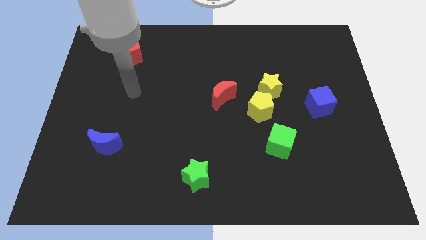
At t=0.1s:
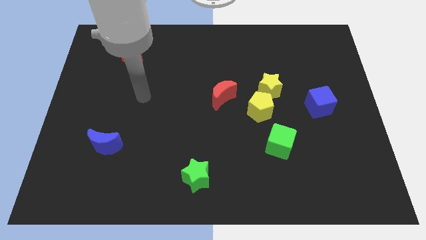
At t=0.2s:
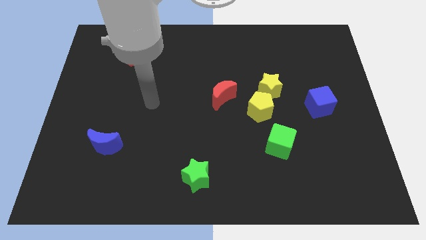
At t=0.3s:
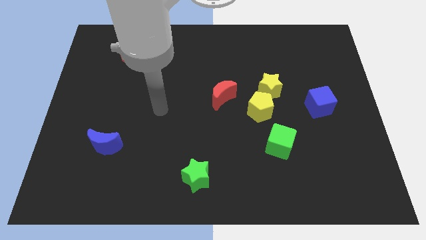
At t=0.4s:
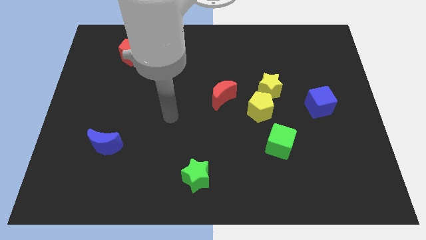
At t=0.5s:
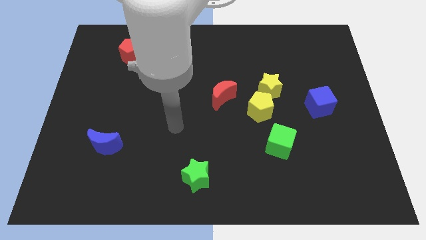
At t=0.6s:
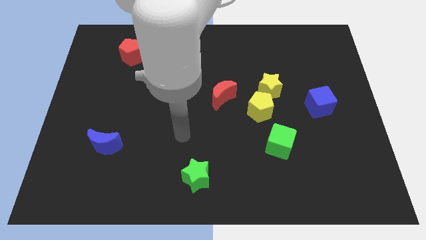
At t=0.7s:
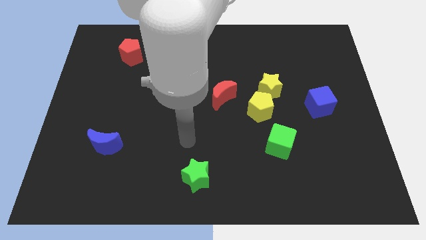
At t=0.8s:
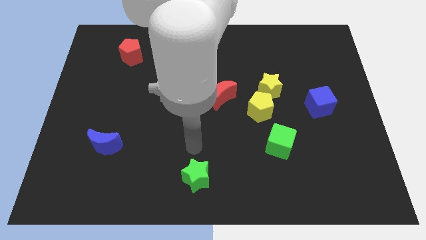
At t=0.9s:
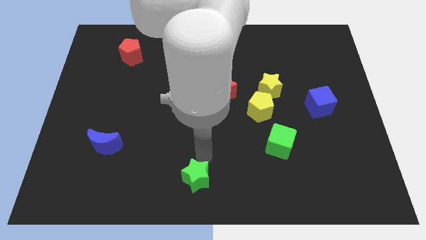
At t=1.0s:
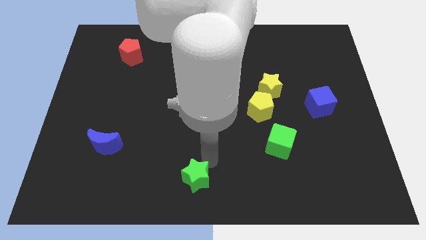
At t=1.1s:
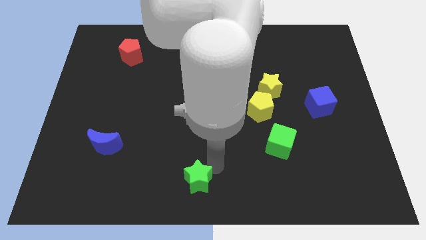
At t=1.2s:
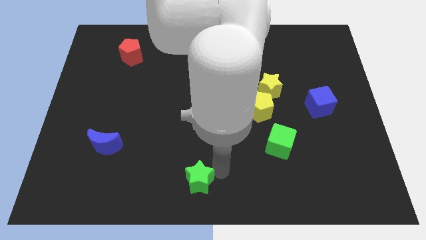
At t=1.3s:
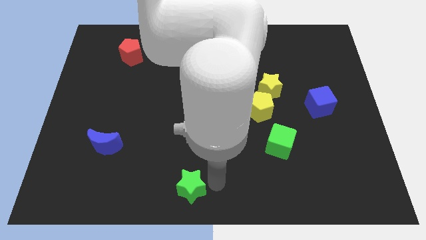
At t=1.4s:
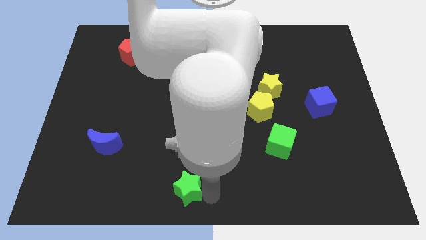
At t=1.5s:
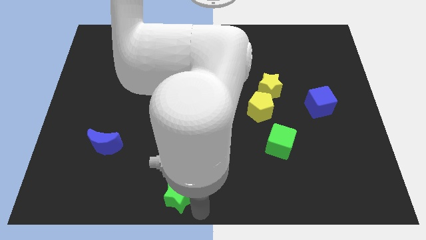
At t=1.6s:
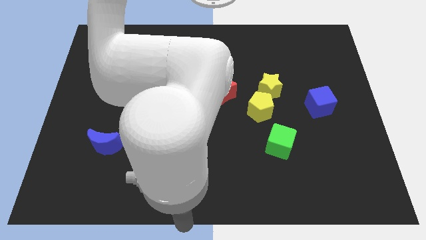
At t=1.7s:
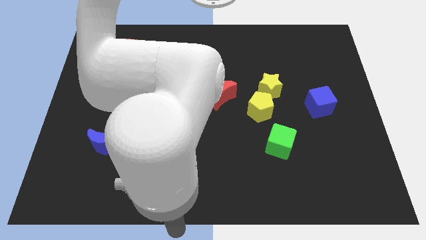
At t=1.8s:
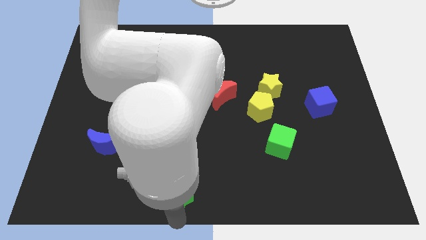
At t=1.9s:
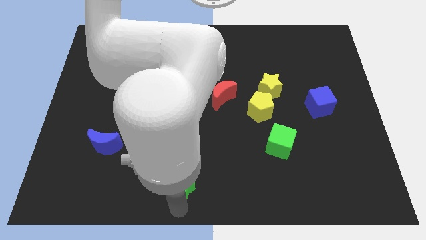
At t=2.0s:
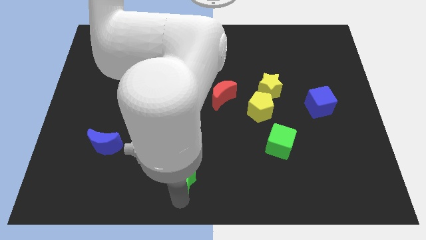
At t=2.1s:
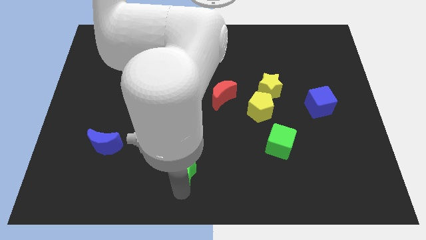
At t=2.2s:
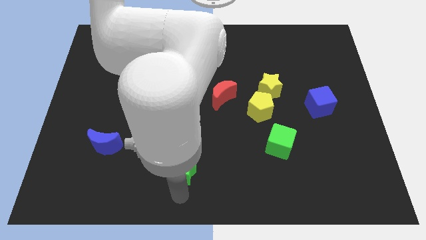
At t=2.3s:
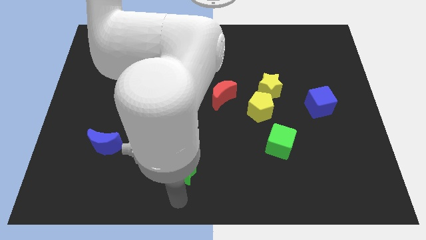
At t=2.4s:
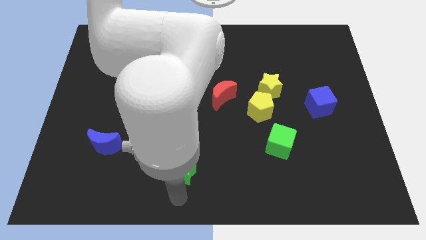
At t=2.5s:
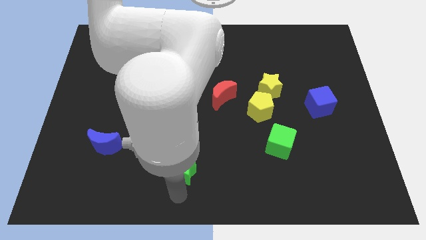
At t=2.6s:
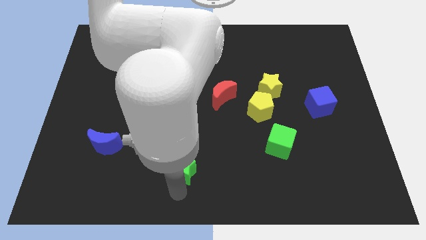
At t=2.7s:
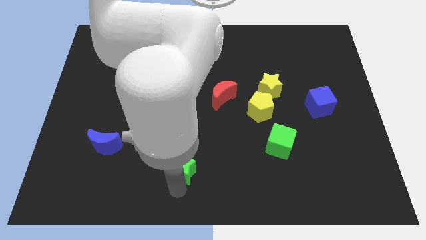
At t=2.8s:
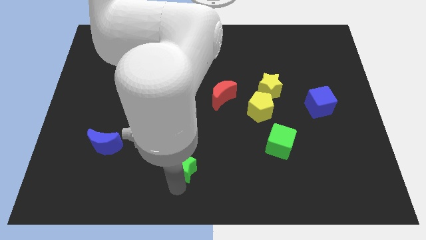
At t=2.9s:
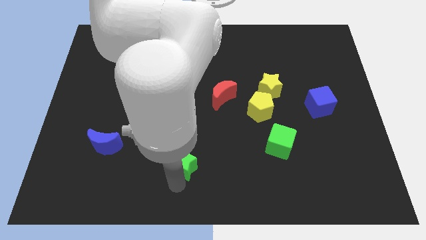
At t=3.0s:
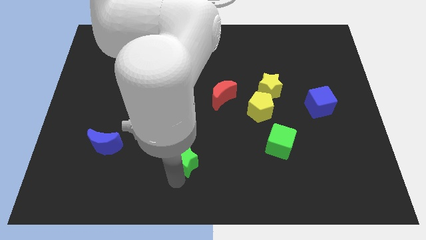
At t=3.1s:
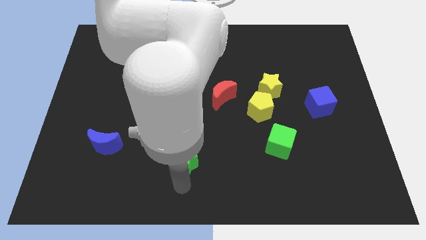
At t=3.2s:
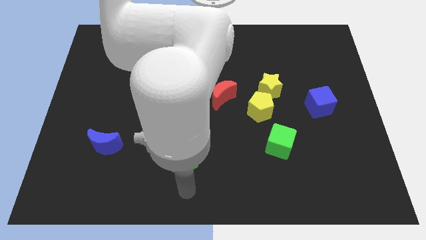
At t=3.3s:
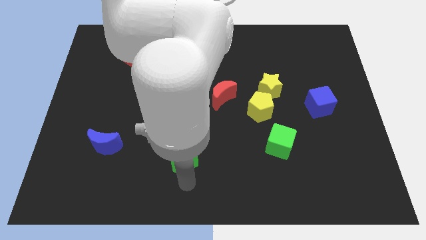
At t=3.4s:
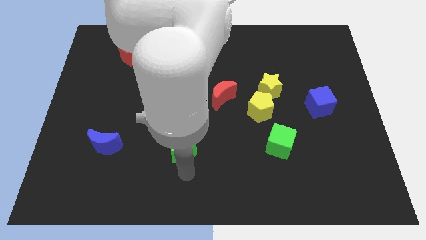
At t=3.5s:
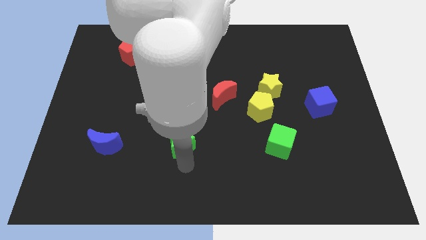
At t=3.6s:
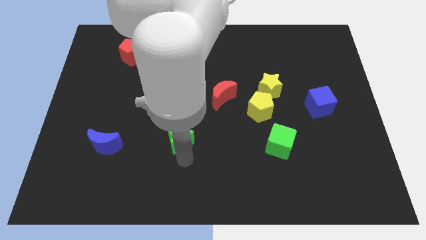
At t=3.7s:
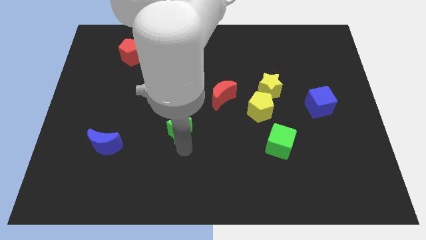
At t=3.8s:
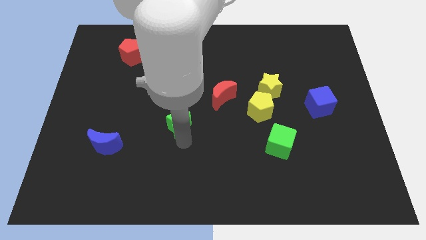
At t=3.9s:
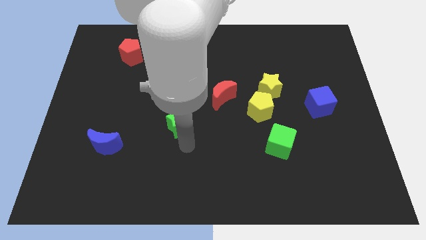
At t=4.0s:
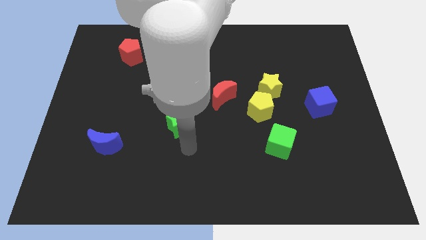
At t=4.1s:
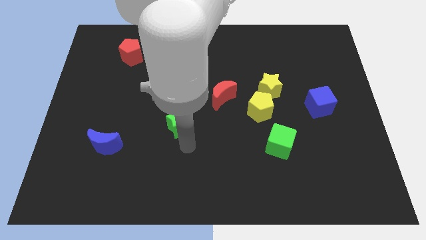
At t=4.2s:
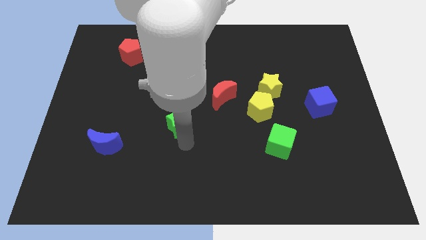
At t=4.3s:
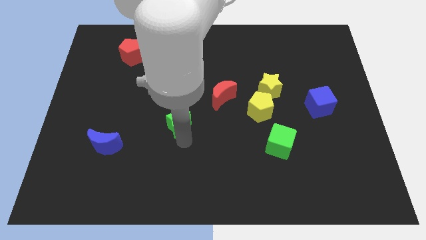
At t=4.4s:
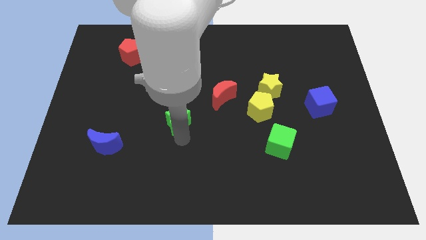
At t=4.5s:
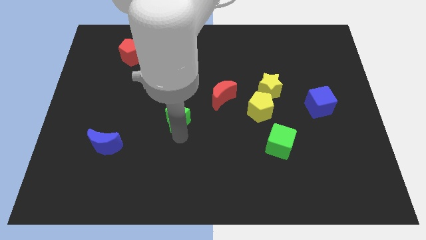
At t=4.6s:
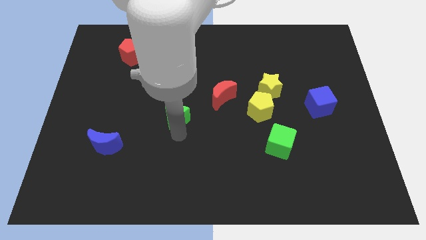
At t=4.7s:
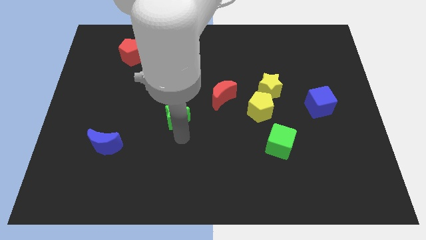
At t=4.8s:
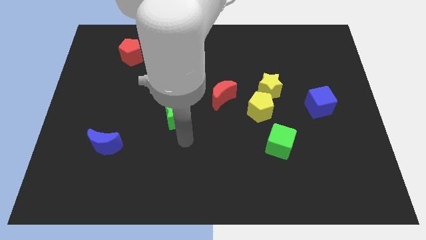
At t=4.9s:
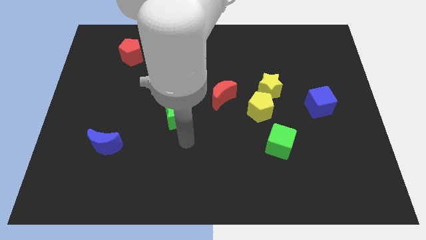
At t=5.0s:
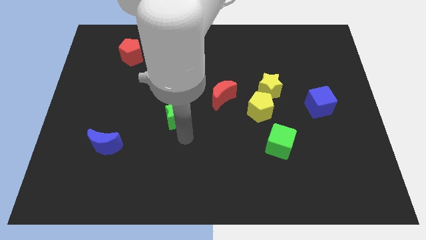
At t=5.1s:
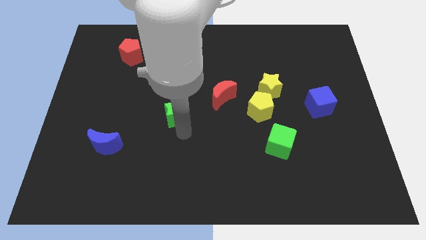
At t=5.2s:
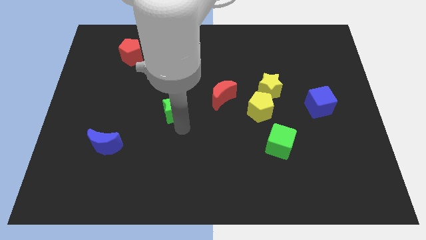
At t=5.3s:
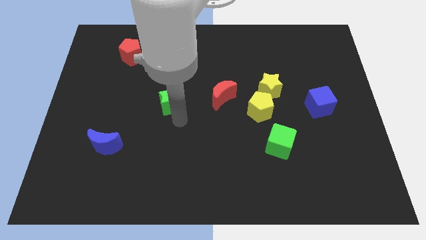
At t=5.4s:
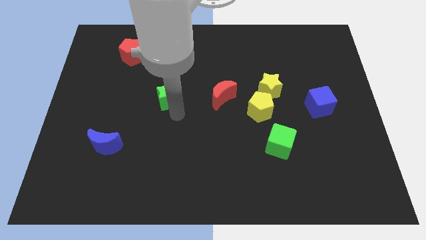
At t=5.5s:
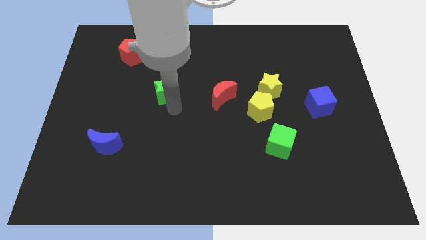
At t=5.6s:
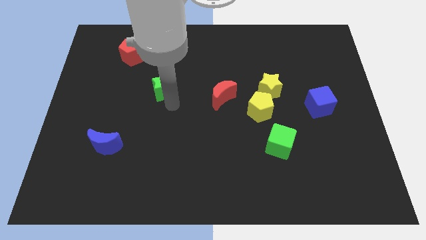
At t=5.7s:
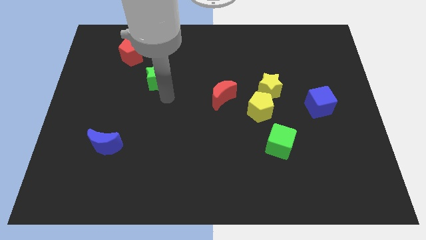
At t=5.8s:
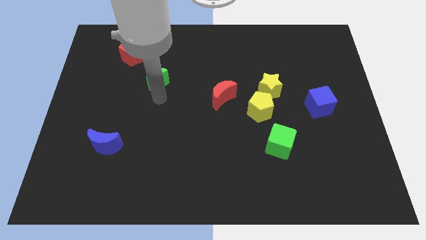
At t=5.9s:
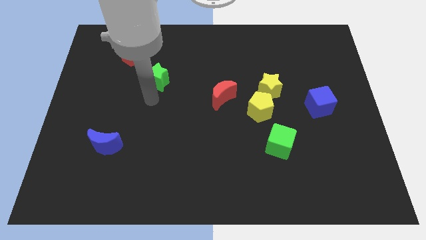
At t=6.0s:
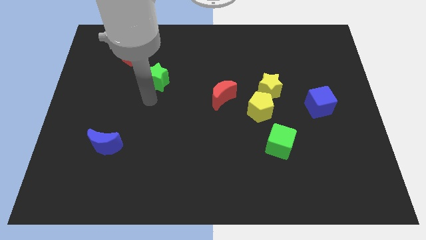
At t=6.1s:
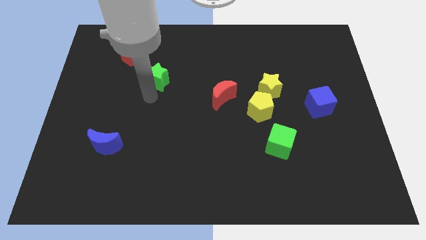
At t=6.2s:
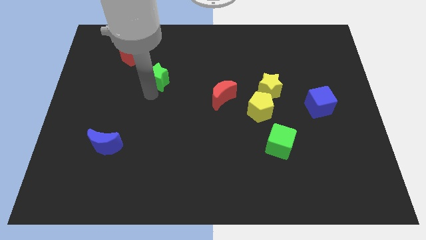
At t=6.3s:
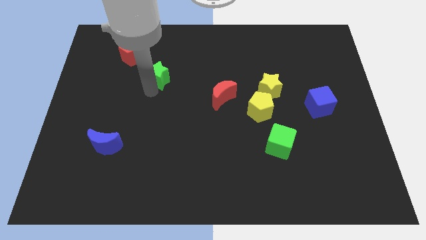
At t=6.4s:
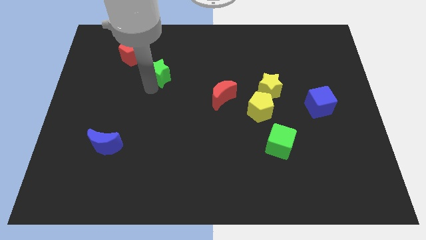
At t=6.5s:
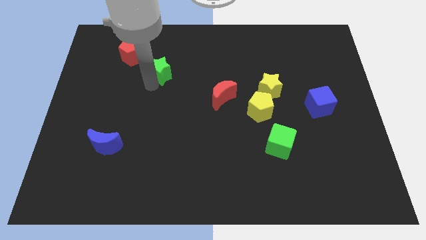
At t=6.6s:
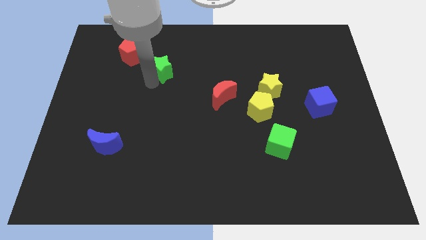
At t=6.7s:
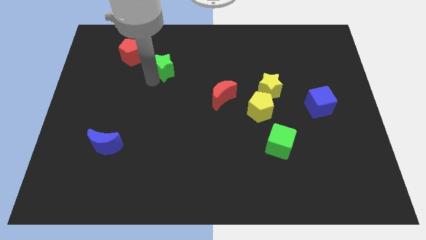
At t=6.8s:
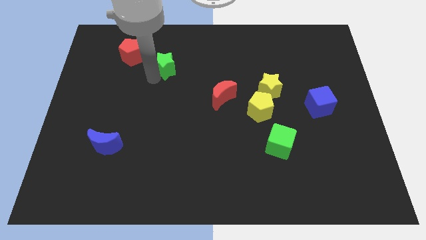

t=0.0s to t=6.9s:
push the green star just right of the red pentagon
